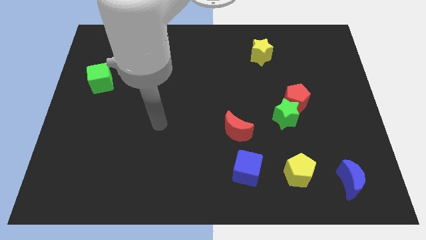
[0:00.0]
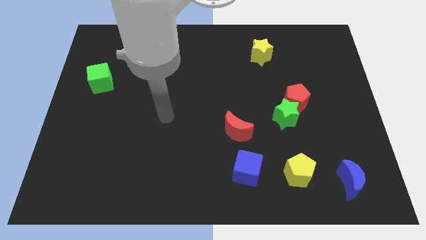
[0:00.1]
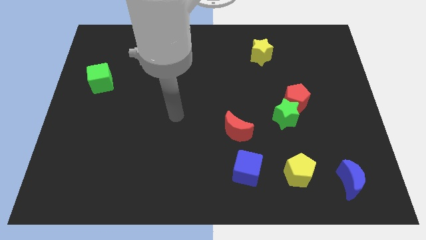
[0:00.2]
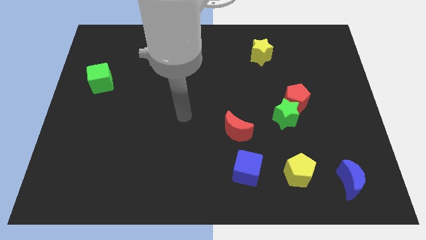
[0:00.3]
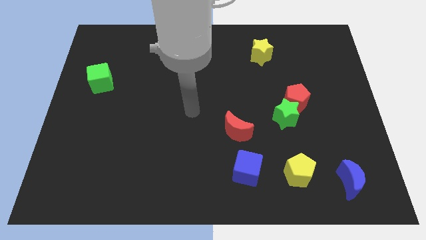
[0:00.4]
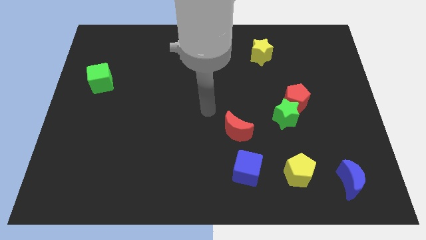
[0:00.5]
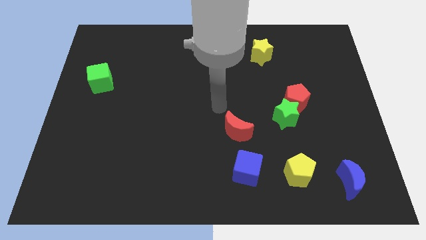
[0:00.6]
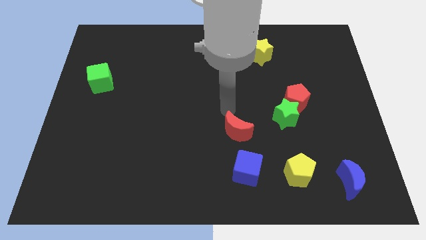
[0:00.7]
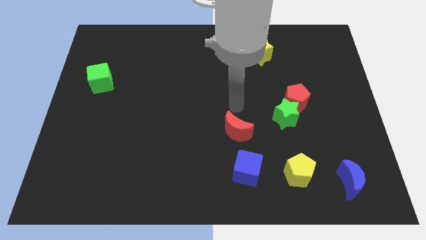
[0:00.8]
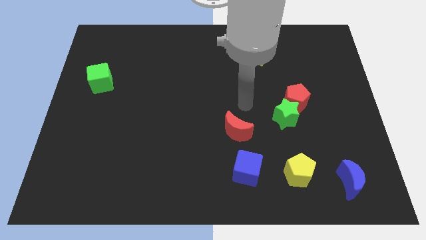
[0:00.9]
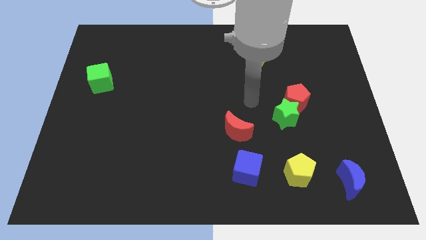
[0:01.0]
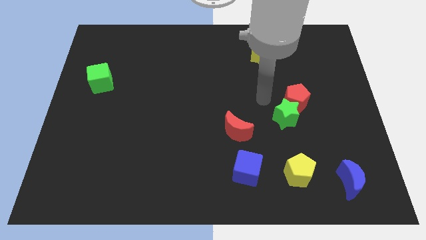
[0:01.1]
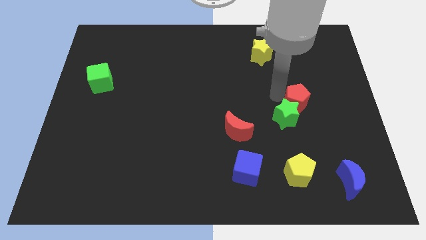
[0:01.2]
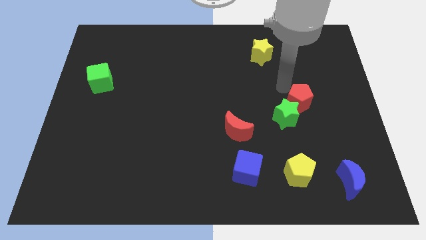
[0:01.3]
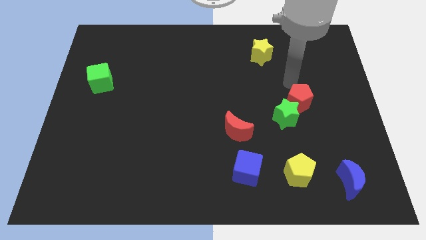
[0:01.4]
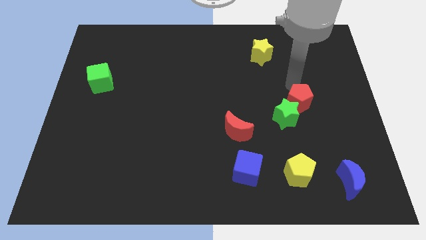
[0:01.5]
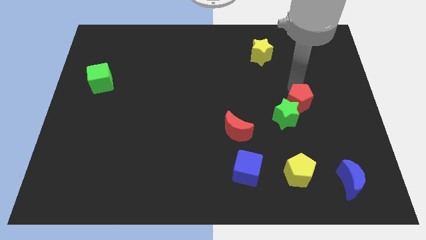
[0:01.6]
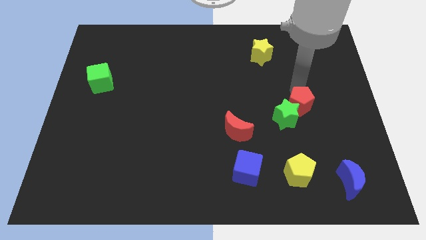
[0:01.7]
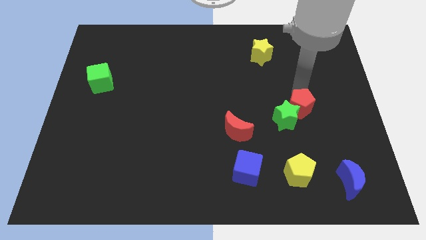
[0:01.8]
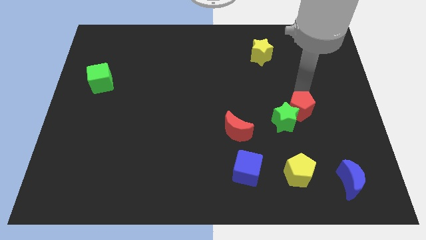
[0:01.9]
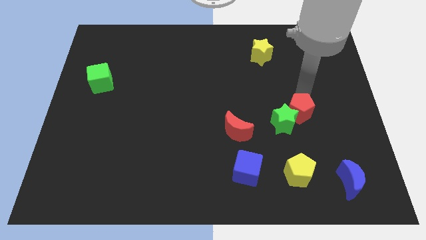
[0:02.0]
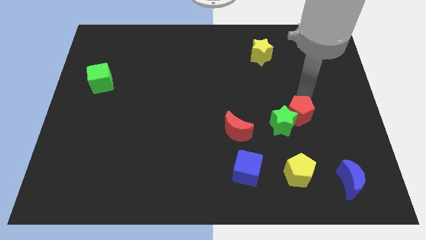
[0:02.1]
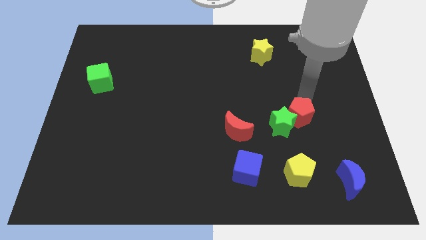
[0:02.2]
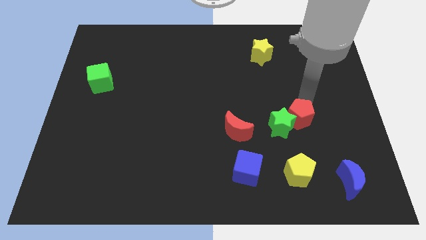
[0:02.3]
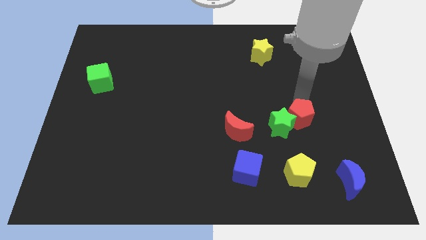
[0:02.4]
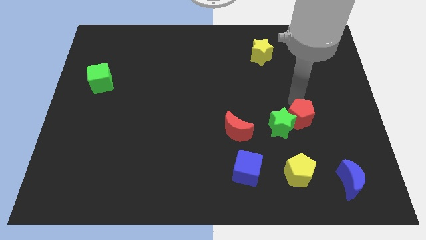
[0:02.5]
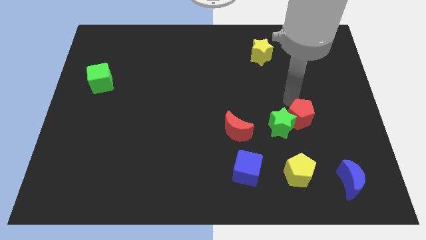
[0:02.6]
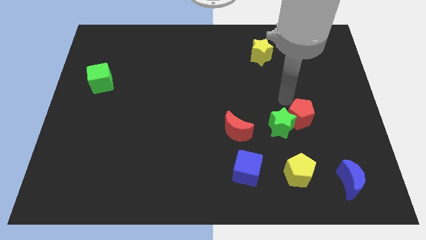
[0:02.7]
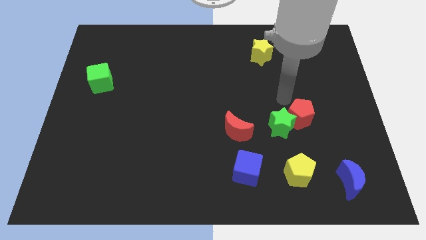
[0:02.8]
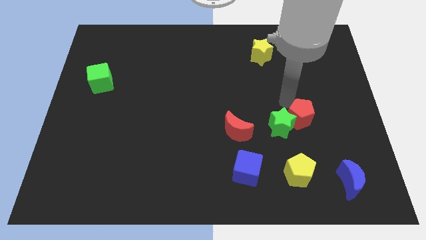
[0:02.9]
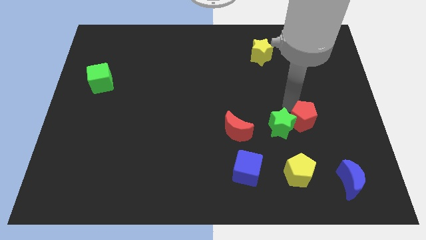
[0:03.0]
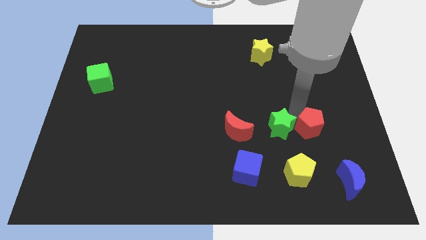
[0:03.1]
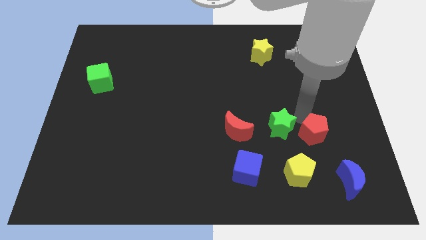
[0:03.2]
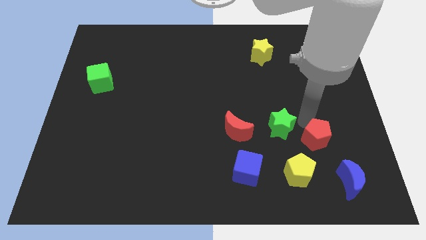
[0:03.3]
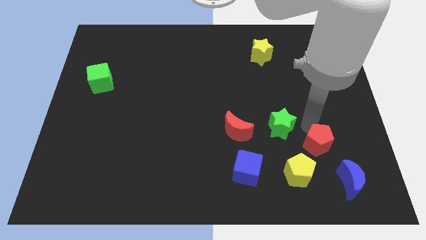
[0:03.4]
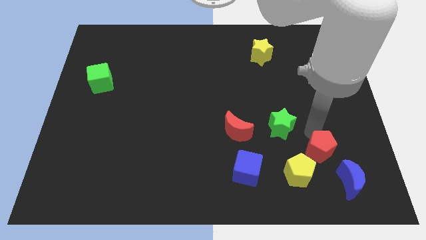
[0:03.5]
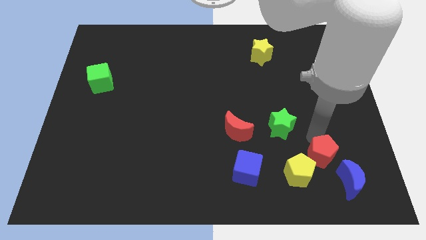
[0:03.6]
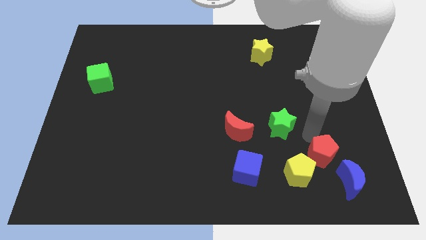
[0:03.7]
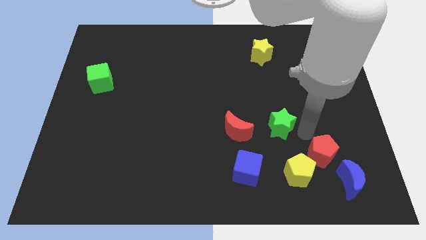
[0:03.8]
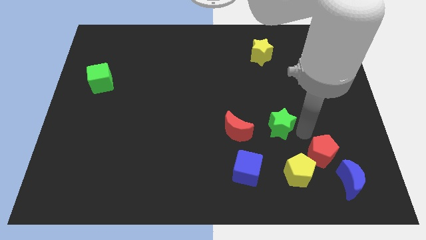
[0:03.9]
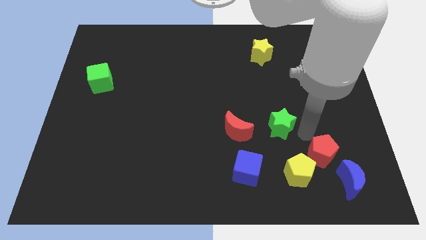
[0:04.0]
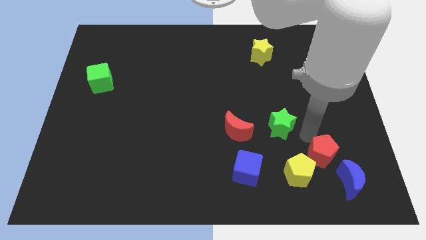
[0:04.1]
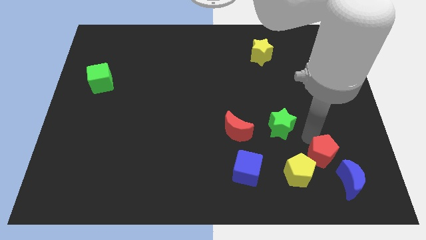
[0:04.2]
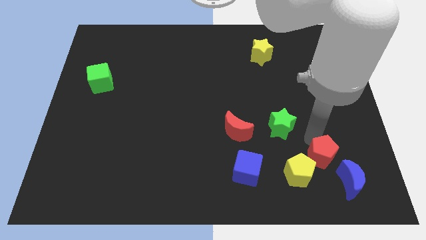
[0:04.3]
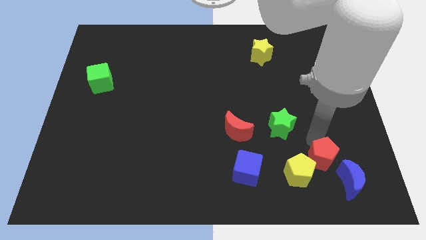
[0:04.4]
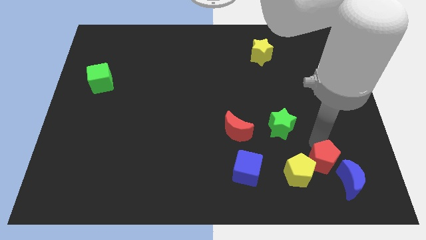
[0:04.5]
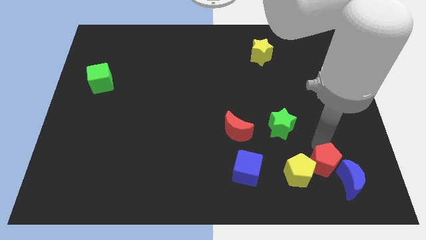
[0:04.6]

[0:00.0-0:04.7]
put the red pentagon to the blue moon

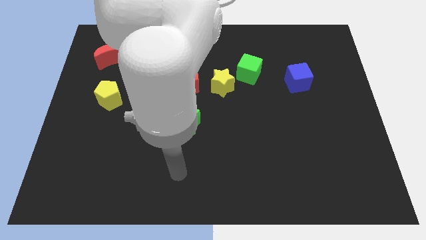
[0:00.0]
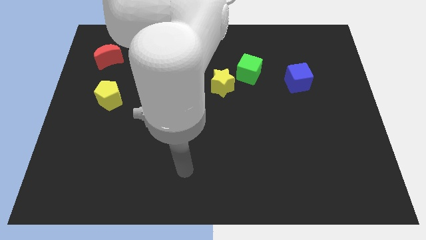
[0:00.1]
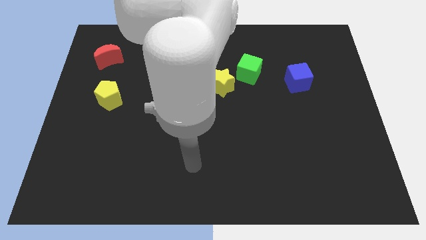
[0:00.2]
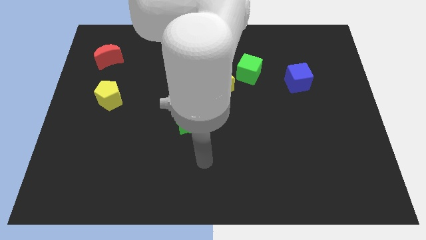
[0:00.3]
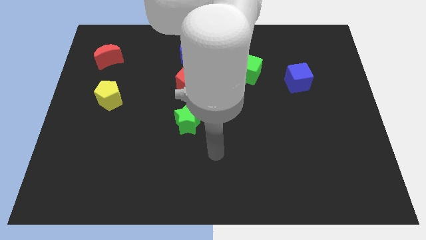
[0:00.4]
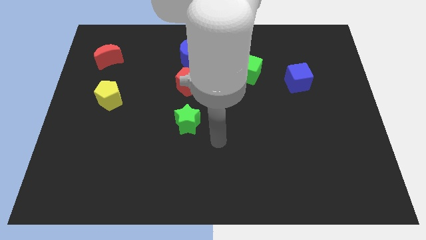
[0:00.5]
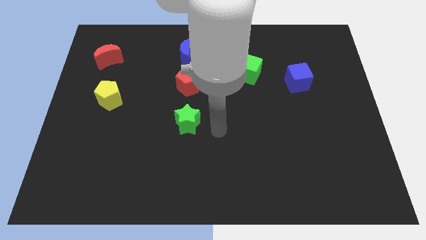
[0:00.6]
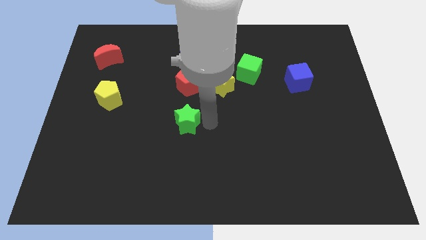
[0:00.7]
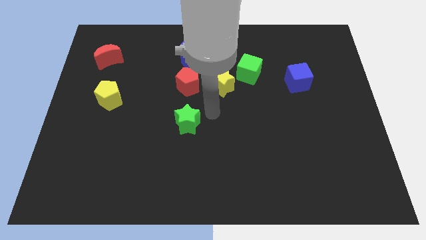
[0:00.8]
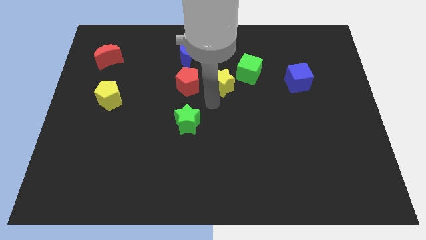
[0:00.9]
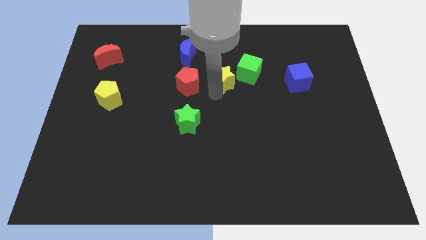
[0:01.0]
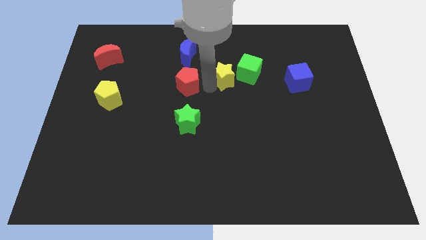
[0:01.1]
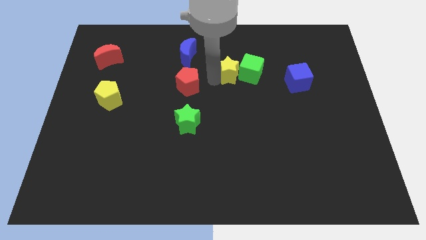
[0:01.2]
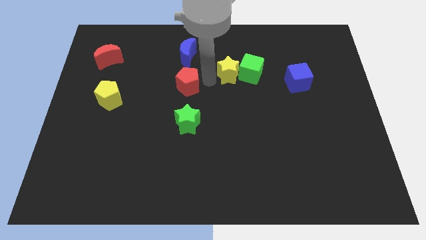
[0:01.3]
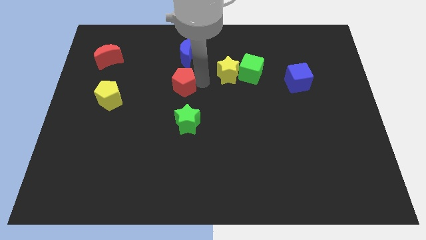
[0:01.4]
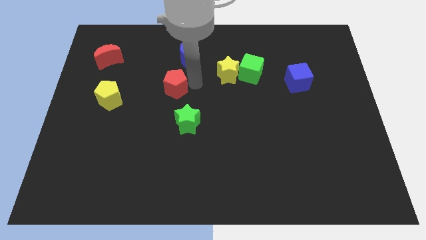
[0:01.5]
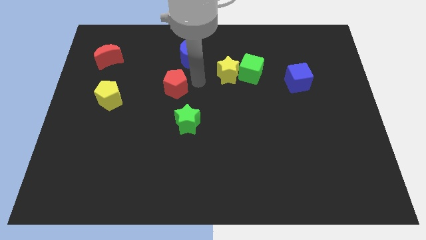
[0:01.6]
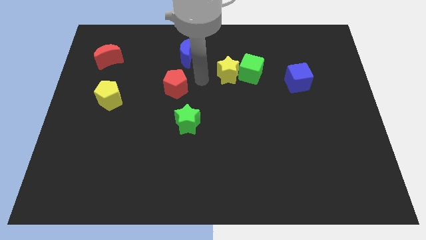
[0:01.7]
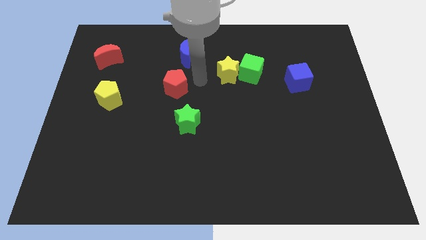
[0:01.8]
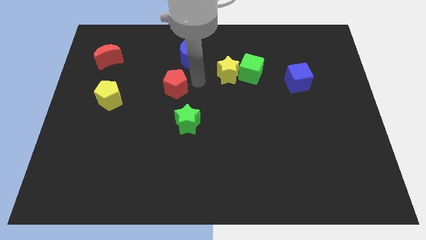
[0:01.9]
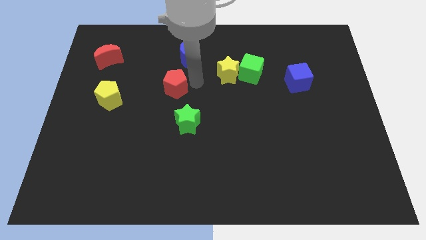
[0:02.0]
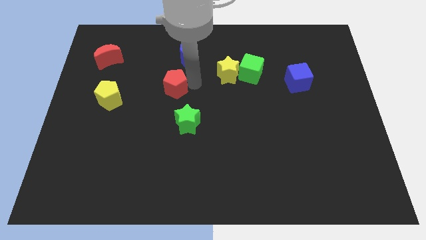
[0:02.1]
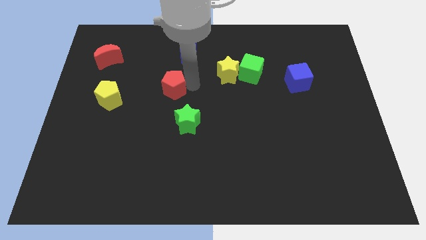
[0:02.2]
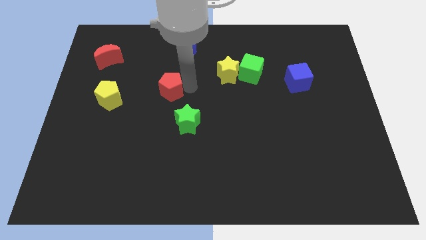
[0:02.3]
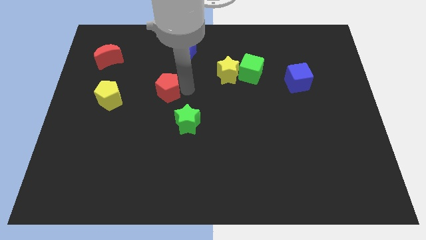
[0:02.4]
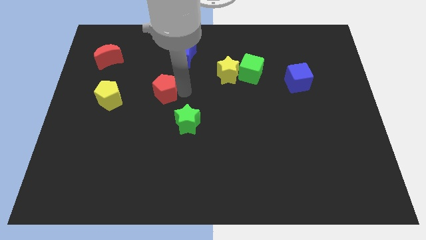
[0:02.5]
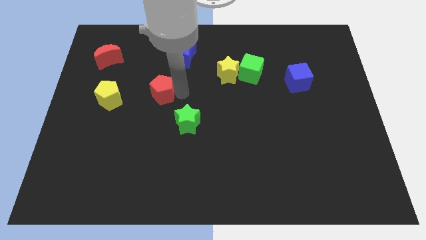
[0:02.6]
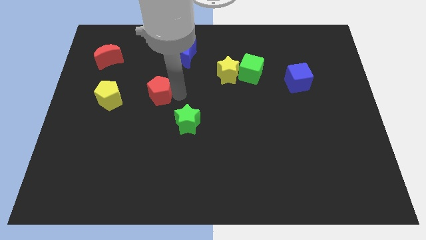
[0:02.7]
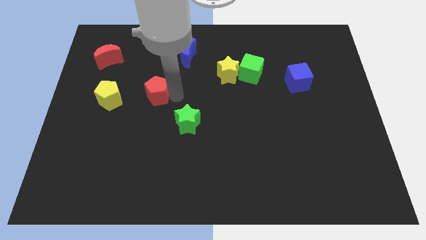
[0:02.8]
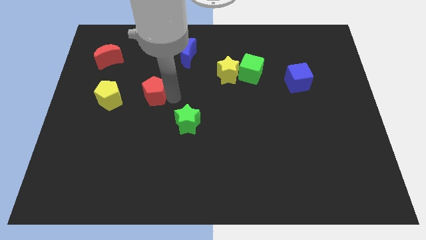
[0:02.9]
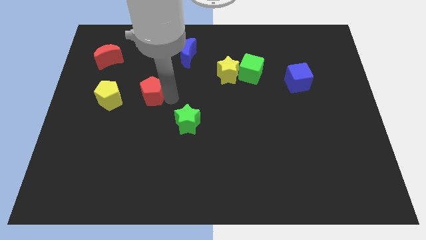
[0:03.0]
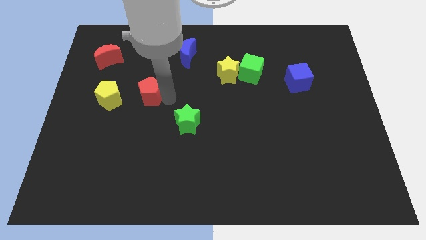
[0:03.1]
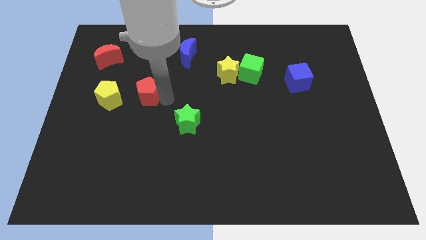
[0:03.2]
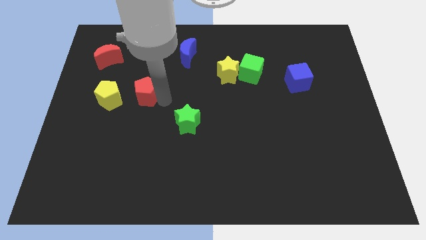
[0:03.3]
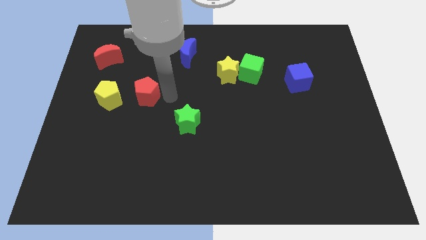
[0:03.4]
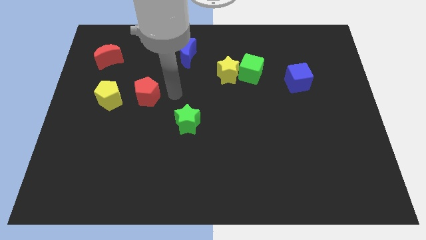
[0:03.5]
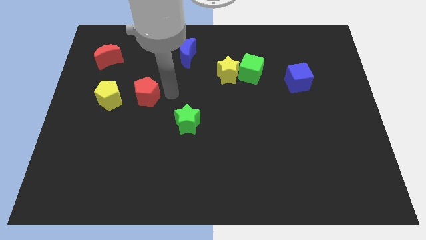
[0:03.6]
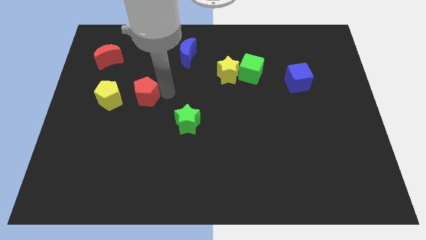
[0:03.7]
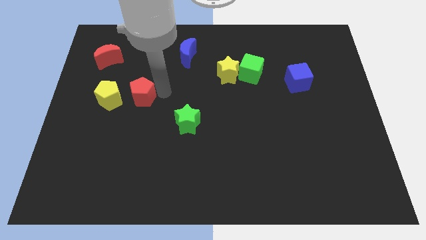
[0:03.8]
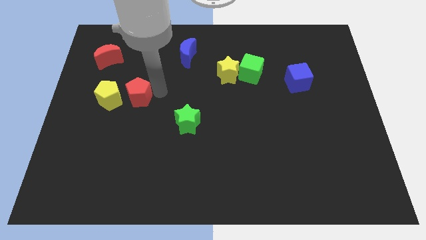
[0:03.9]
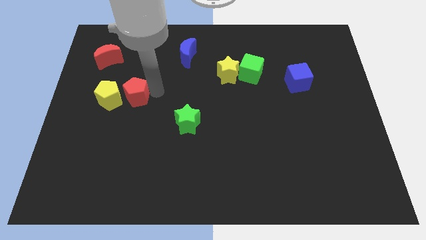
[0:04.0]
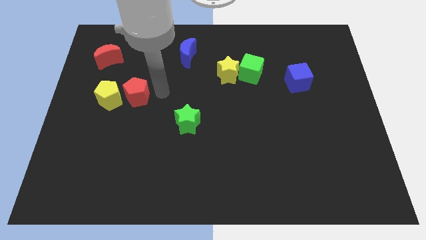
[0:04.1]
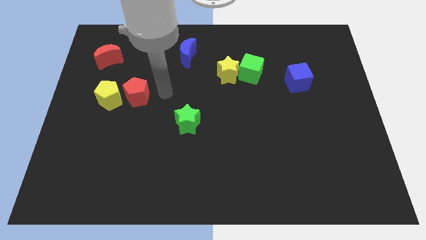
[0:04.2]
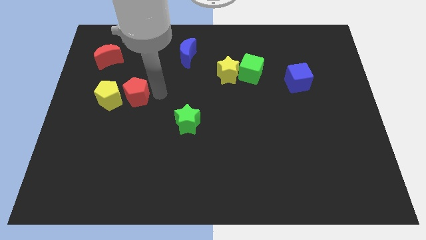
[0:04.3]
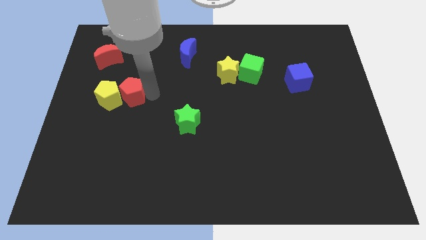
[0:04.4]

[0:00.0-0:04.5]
slide the red pentagon towards the yellow pentagon
